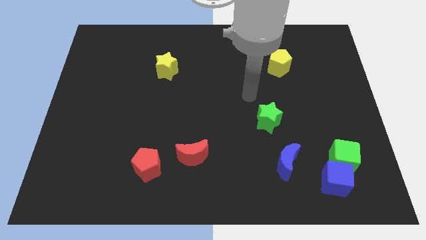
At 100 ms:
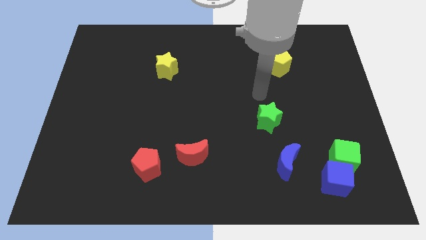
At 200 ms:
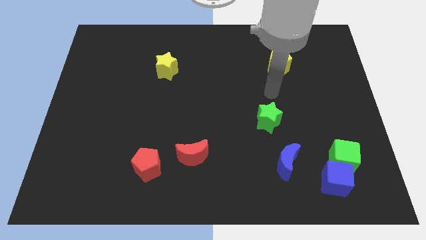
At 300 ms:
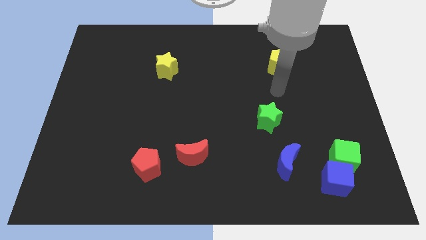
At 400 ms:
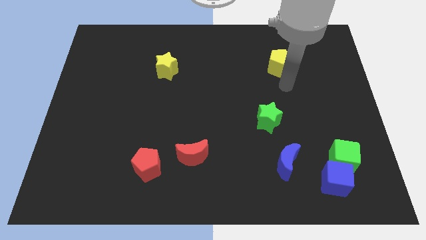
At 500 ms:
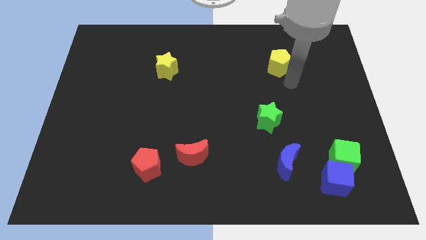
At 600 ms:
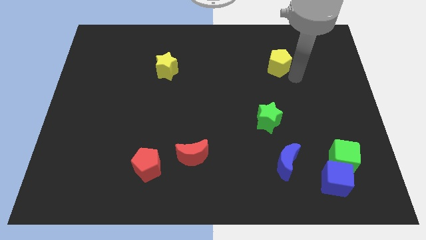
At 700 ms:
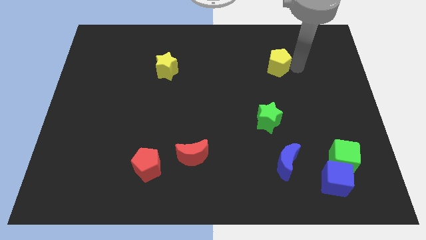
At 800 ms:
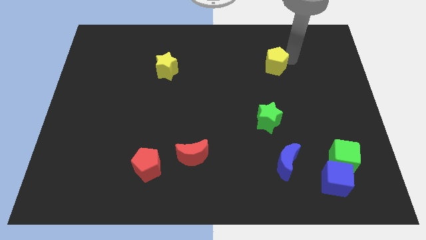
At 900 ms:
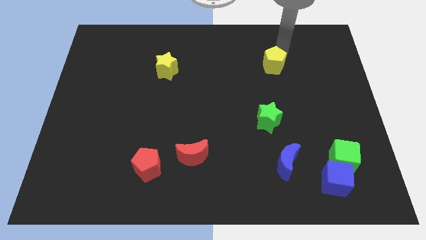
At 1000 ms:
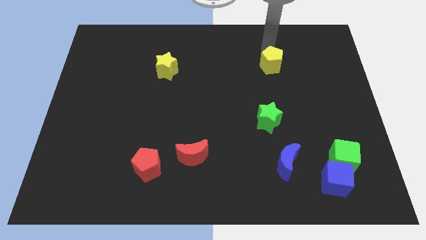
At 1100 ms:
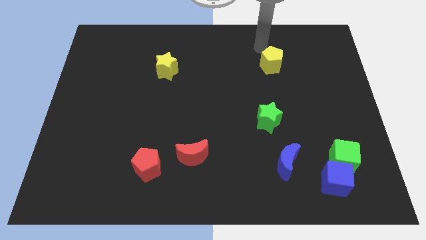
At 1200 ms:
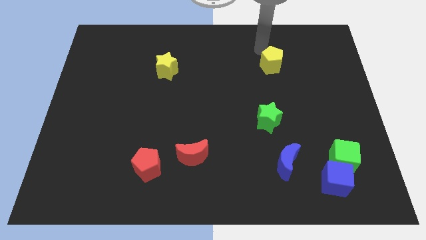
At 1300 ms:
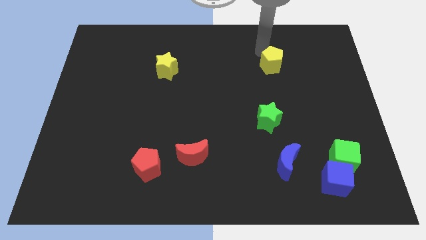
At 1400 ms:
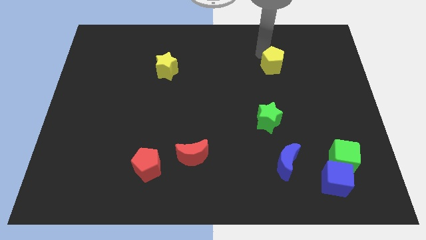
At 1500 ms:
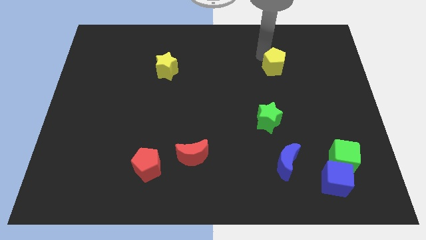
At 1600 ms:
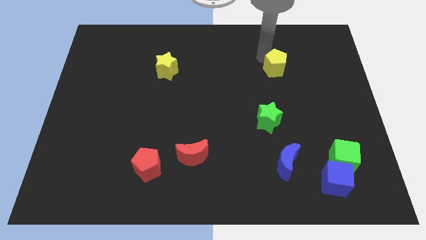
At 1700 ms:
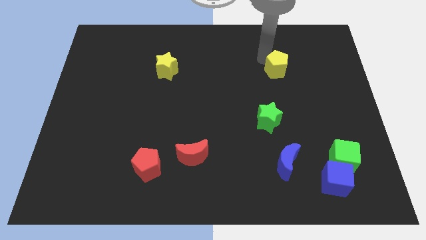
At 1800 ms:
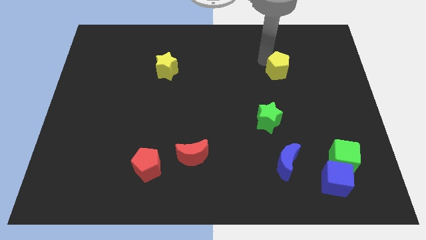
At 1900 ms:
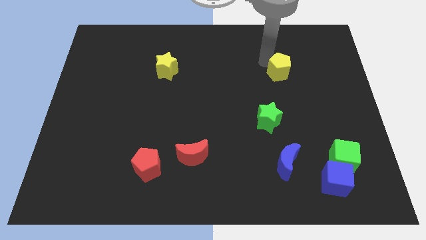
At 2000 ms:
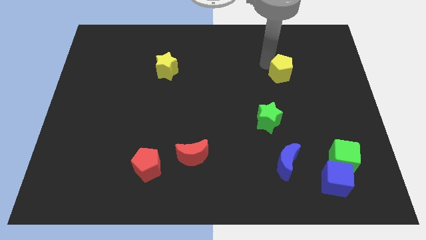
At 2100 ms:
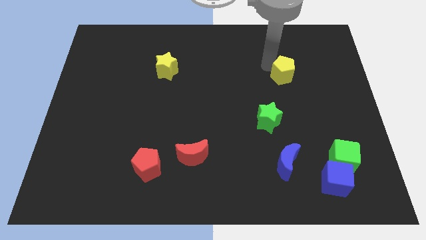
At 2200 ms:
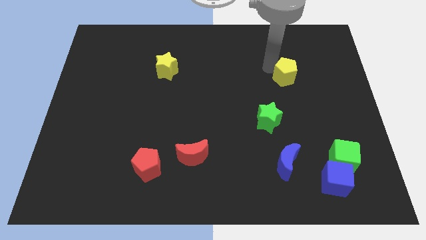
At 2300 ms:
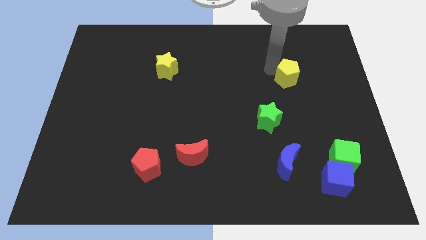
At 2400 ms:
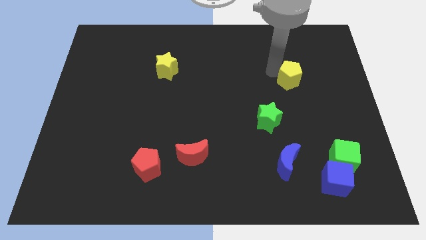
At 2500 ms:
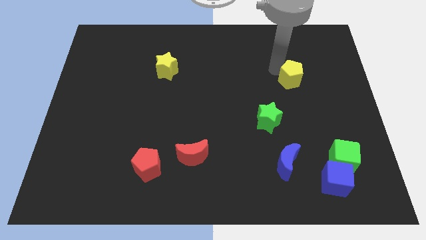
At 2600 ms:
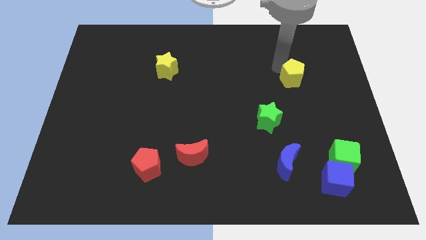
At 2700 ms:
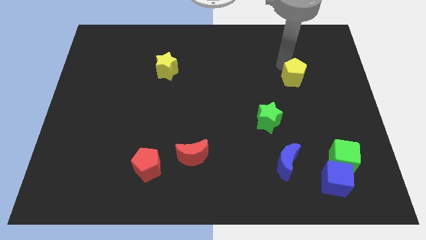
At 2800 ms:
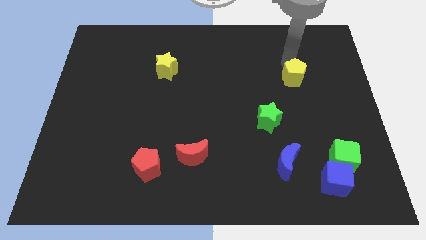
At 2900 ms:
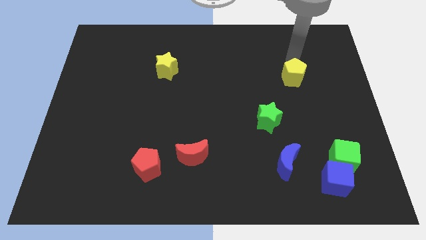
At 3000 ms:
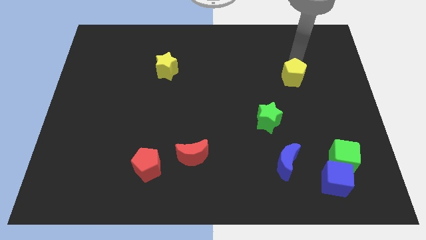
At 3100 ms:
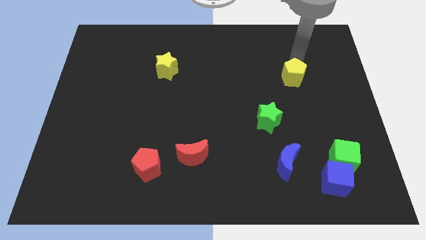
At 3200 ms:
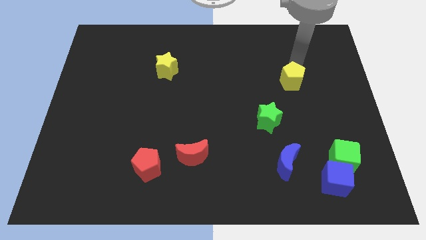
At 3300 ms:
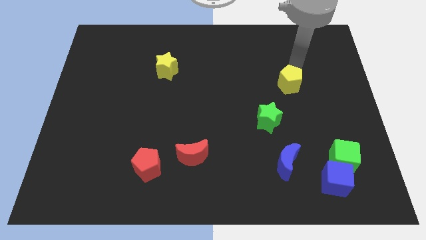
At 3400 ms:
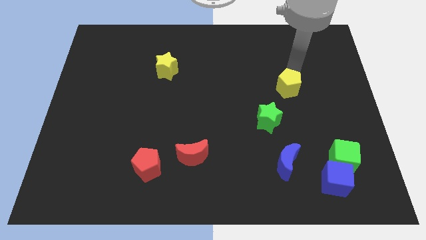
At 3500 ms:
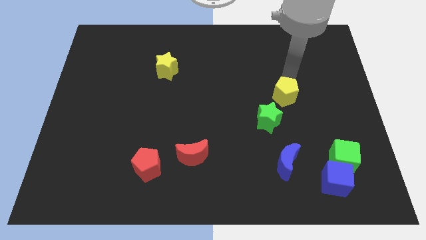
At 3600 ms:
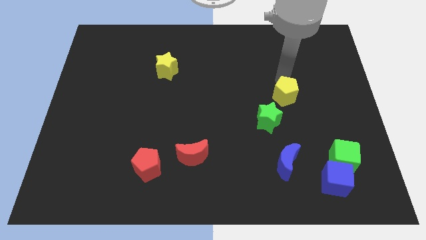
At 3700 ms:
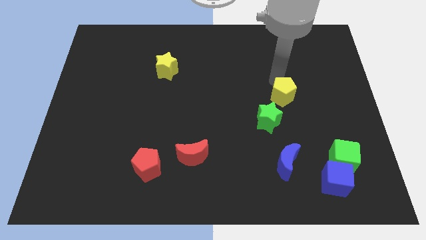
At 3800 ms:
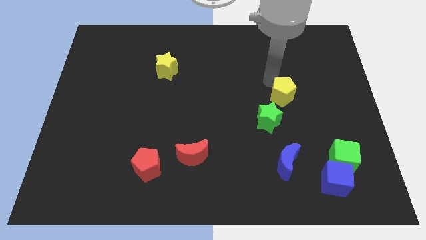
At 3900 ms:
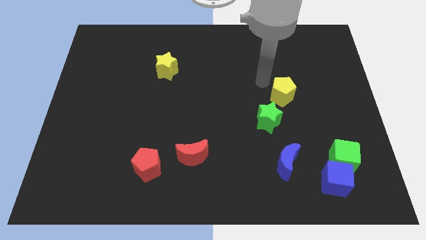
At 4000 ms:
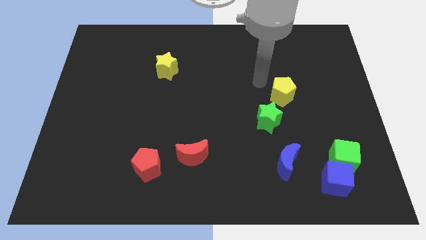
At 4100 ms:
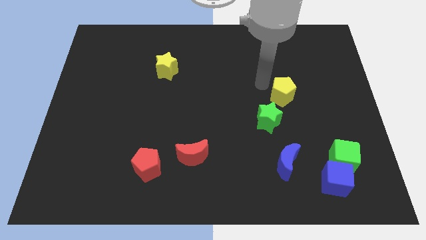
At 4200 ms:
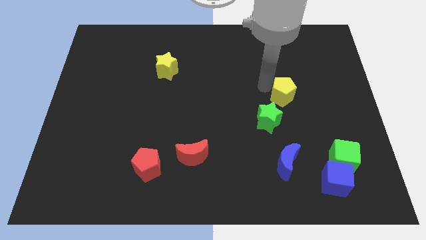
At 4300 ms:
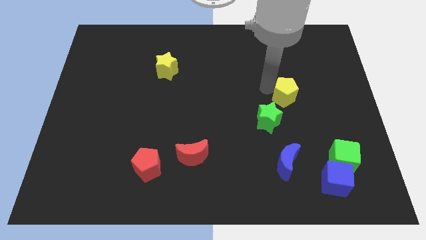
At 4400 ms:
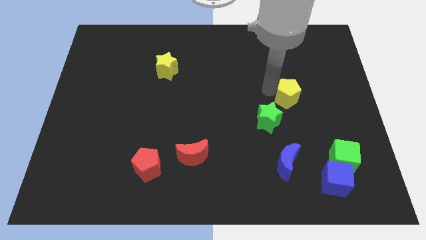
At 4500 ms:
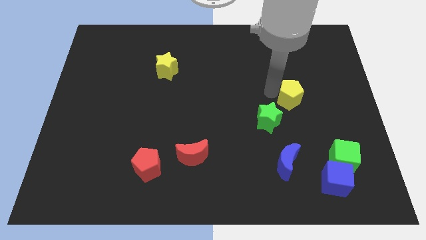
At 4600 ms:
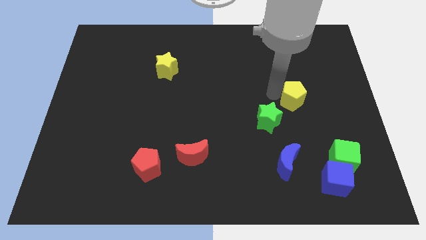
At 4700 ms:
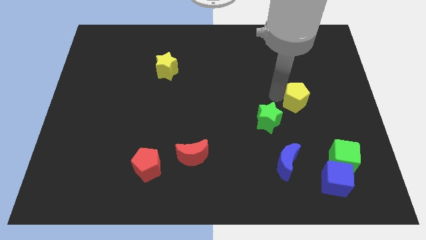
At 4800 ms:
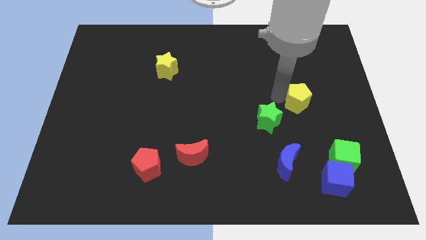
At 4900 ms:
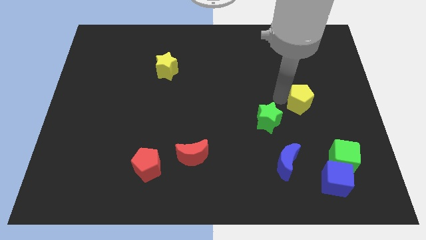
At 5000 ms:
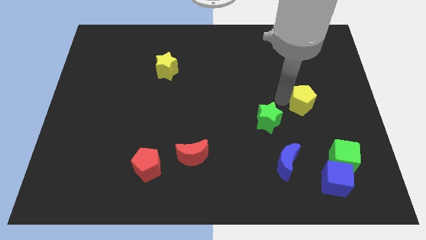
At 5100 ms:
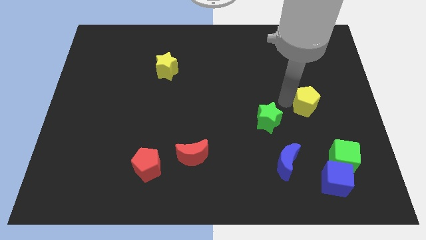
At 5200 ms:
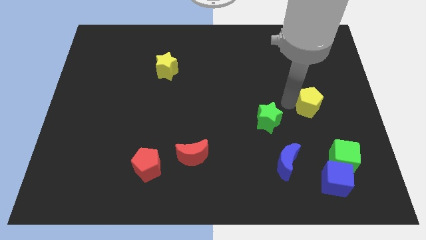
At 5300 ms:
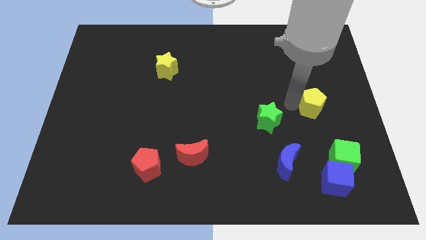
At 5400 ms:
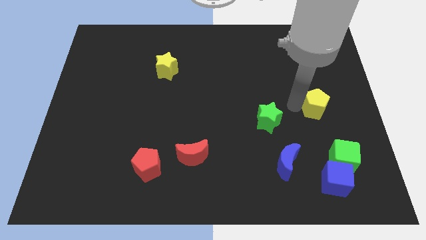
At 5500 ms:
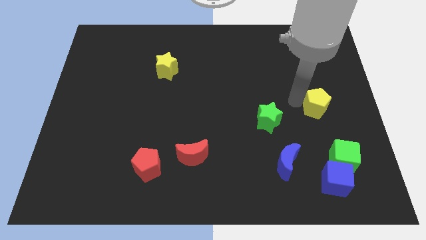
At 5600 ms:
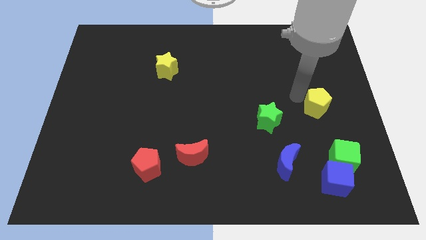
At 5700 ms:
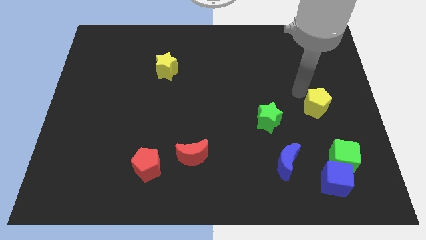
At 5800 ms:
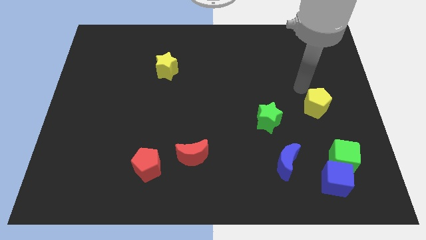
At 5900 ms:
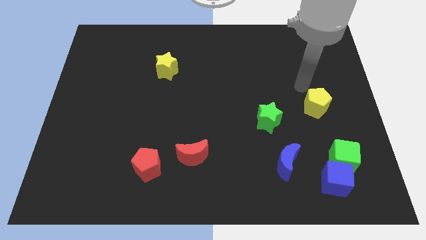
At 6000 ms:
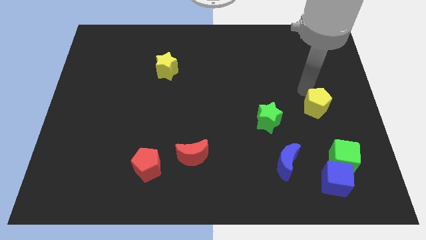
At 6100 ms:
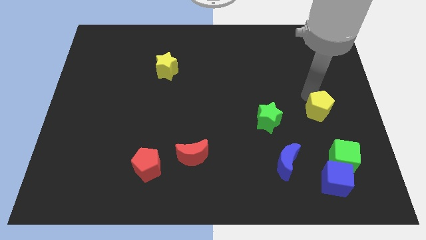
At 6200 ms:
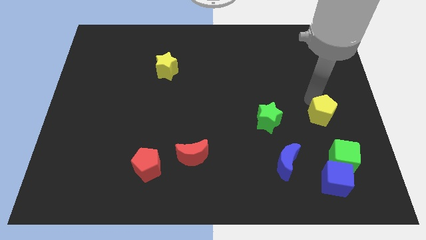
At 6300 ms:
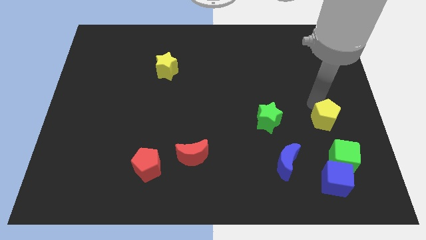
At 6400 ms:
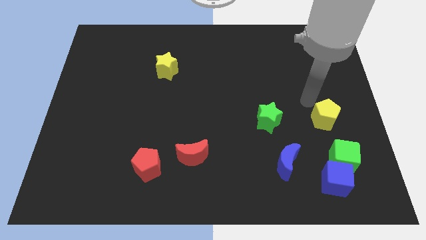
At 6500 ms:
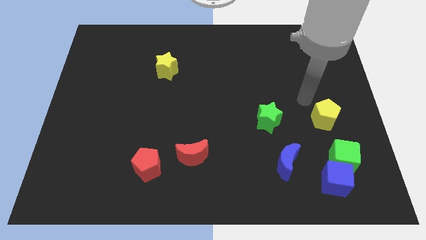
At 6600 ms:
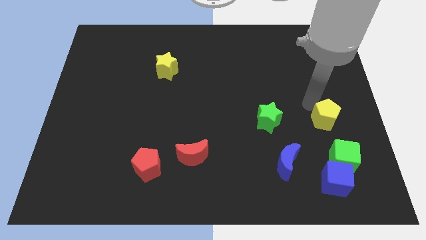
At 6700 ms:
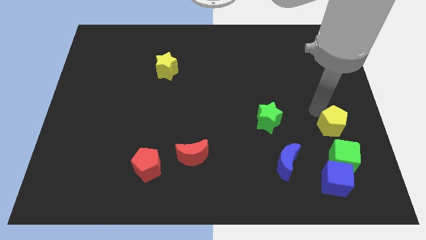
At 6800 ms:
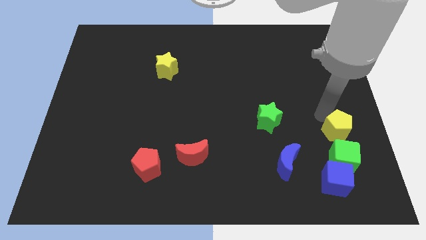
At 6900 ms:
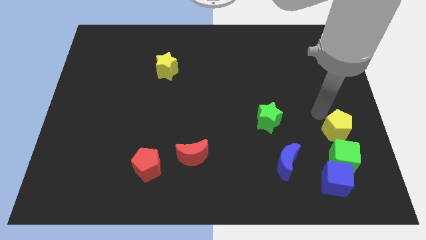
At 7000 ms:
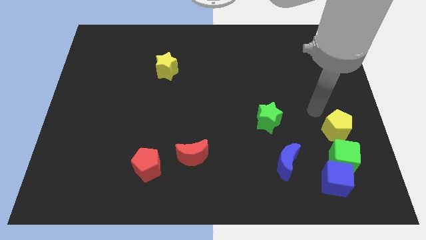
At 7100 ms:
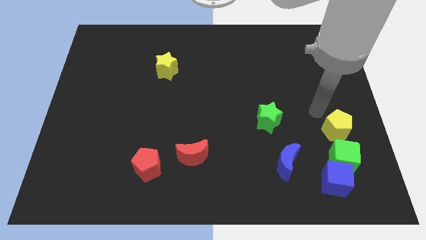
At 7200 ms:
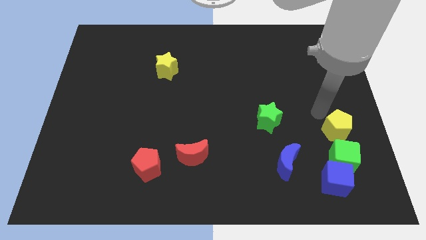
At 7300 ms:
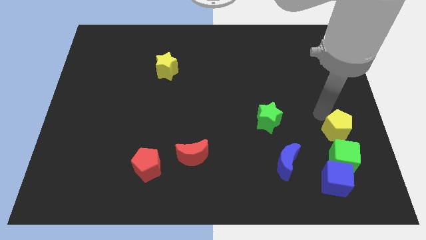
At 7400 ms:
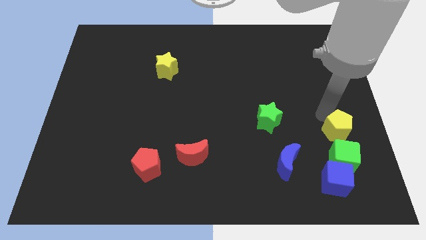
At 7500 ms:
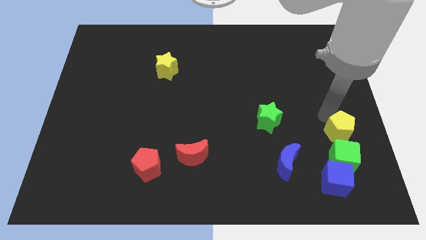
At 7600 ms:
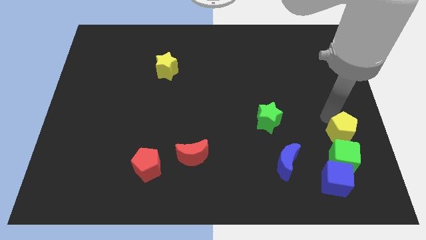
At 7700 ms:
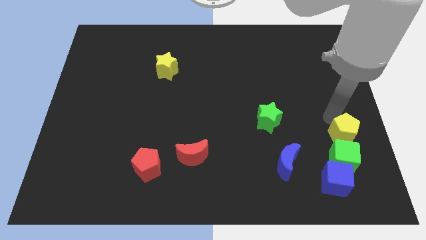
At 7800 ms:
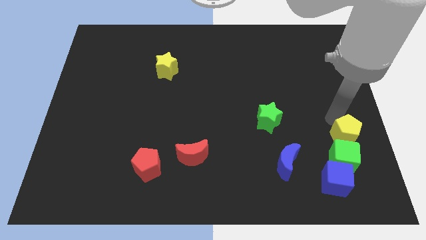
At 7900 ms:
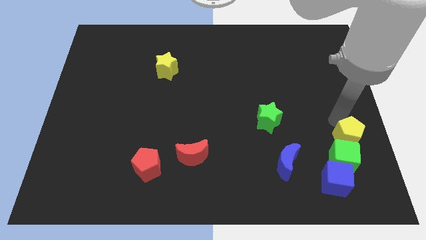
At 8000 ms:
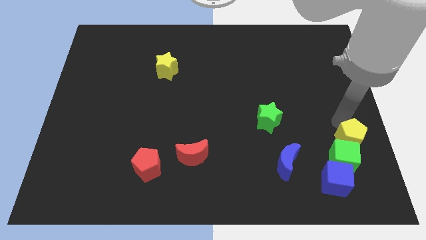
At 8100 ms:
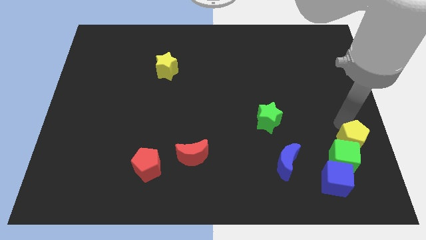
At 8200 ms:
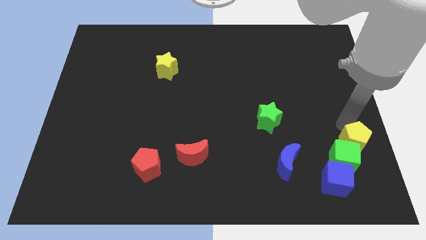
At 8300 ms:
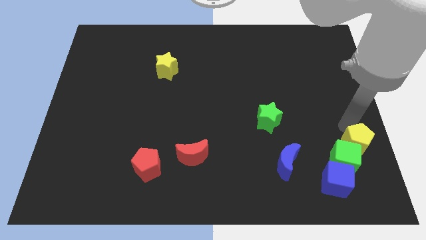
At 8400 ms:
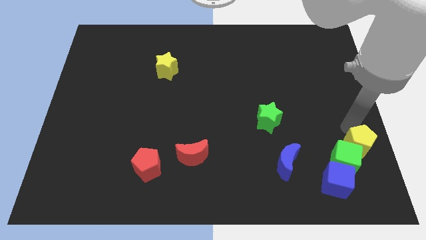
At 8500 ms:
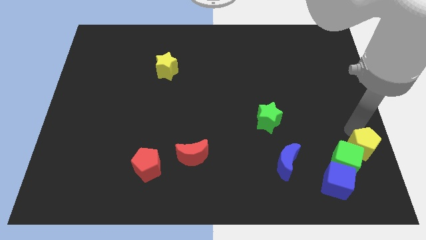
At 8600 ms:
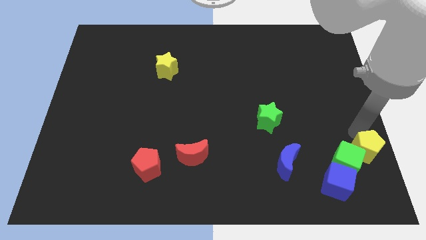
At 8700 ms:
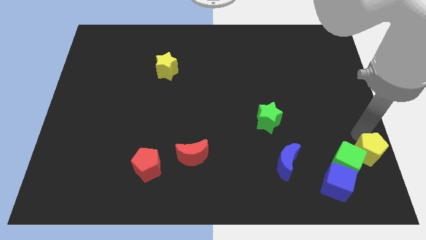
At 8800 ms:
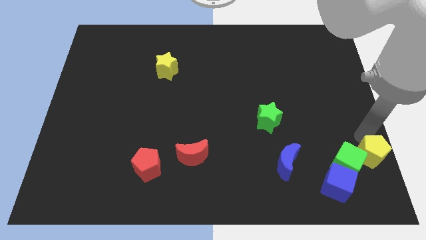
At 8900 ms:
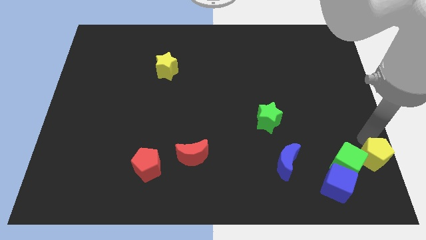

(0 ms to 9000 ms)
push the yellow pentagon to the bottom right corner
